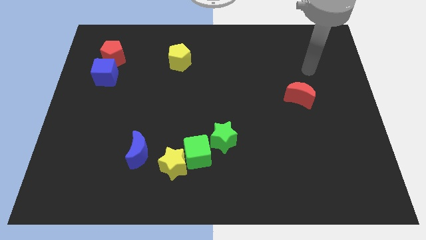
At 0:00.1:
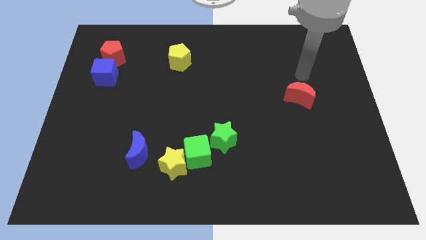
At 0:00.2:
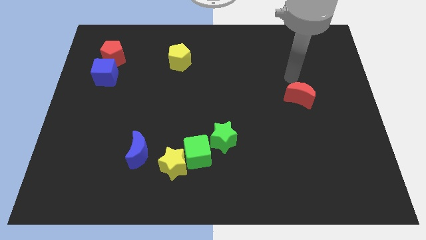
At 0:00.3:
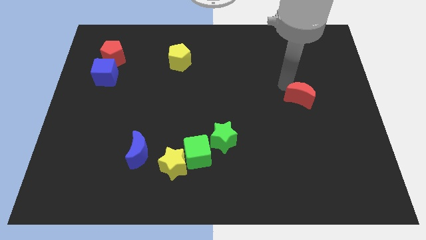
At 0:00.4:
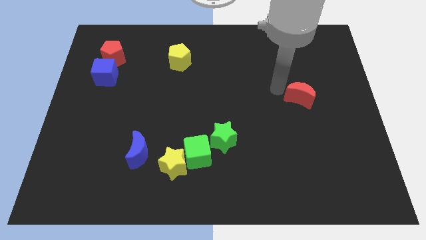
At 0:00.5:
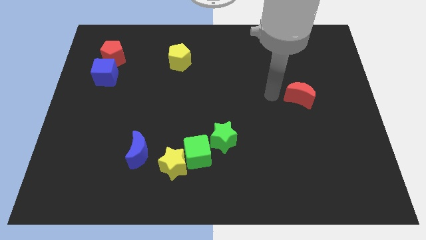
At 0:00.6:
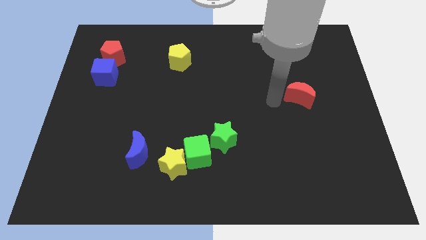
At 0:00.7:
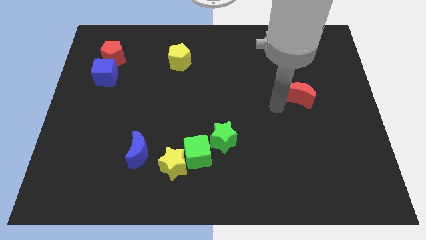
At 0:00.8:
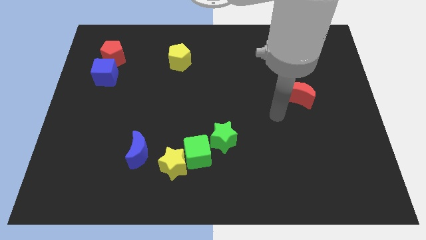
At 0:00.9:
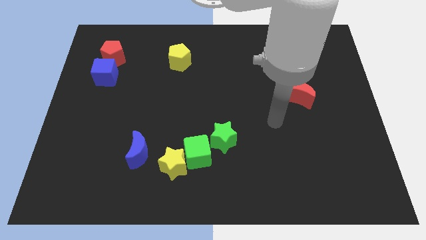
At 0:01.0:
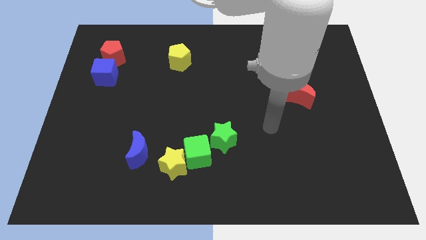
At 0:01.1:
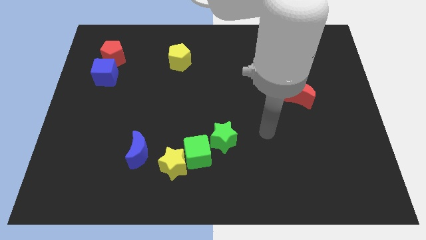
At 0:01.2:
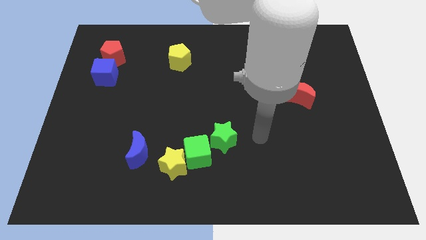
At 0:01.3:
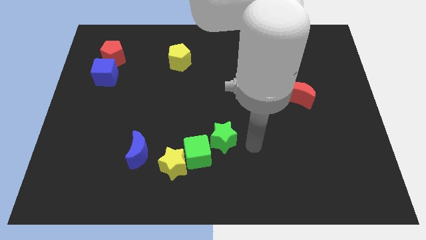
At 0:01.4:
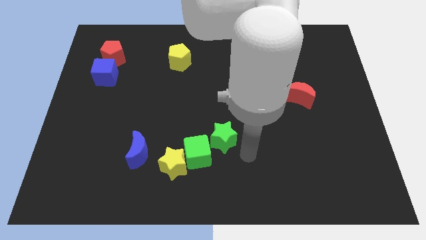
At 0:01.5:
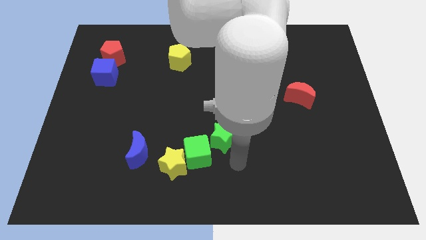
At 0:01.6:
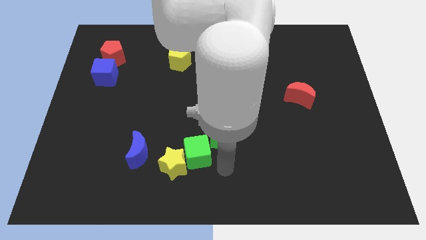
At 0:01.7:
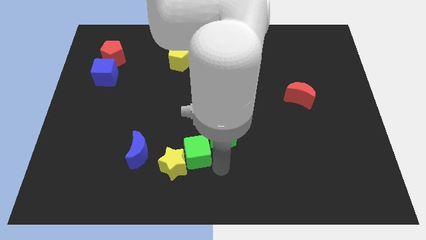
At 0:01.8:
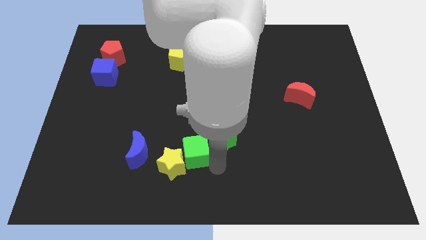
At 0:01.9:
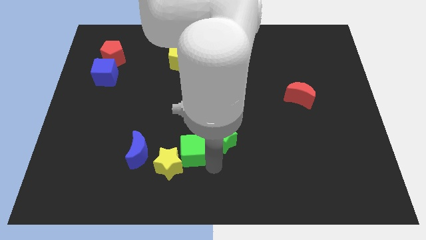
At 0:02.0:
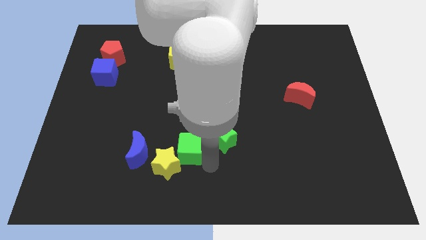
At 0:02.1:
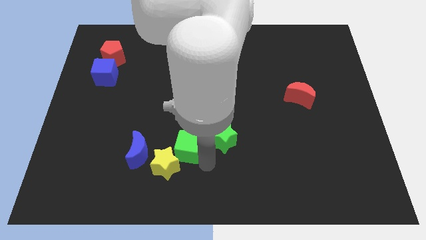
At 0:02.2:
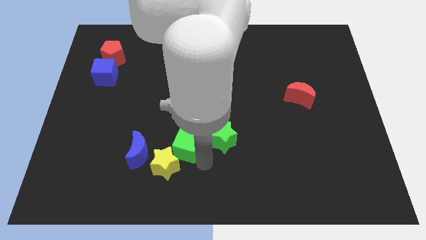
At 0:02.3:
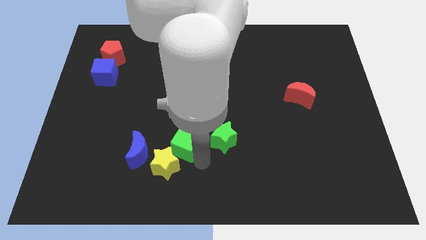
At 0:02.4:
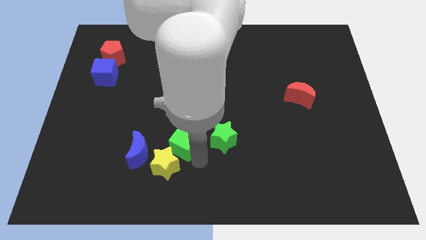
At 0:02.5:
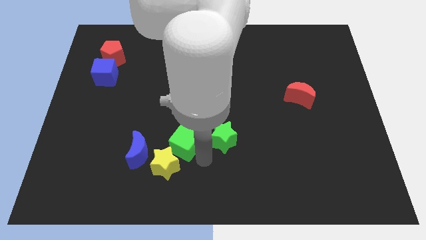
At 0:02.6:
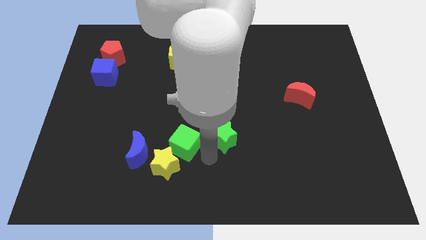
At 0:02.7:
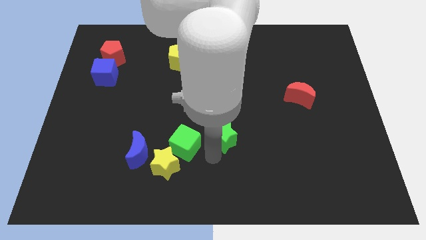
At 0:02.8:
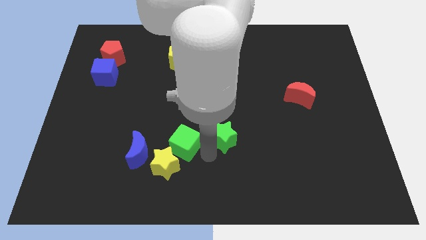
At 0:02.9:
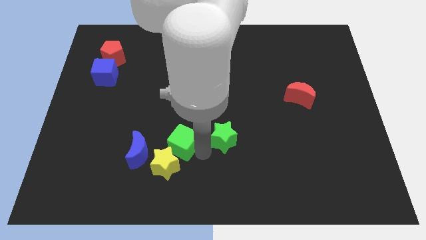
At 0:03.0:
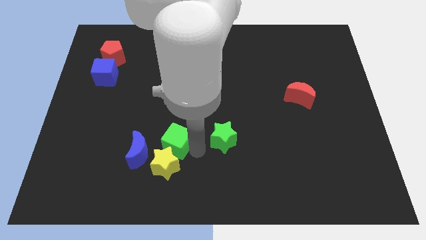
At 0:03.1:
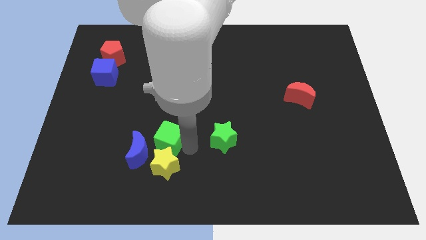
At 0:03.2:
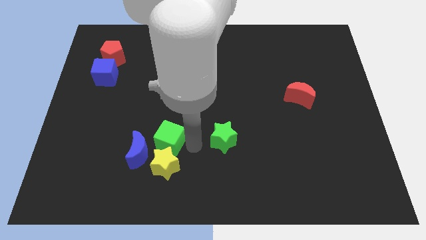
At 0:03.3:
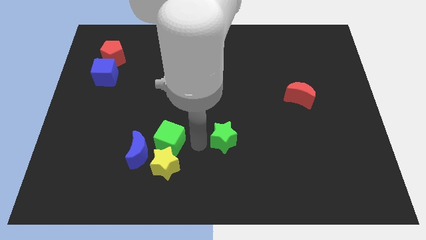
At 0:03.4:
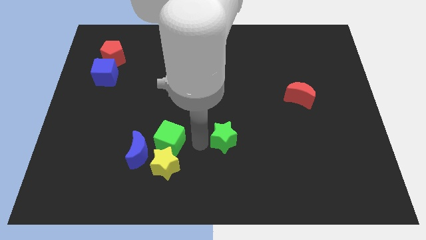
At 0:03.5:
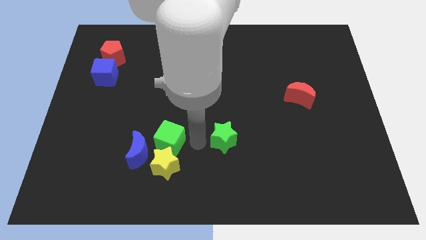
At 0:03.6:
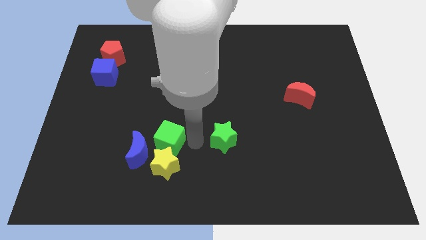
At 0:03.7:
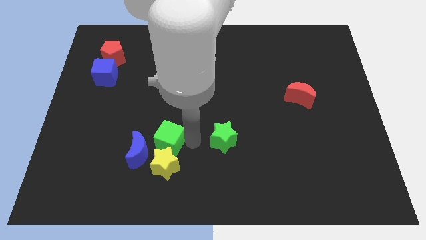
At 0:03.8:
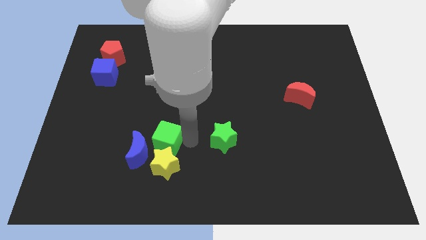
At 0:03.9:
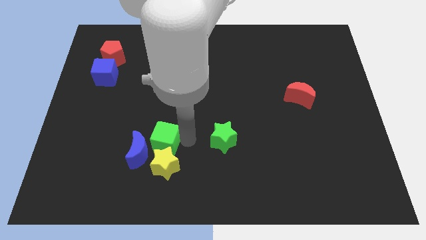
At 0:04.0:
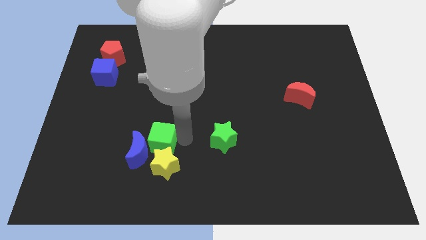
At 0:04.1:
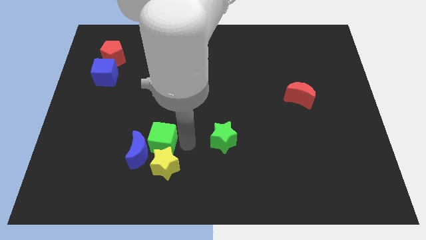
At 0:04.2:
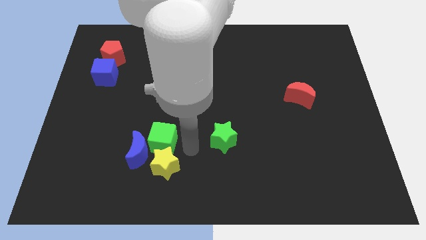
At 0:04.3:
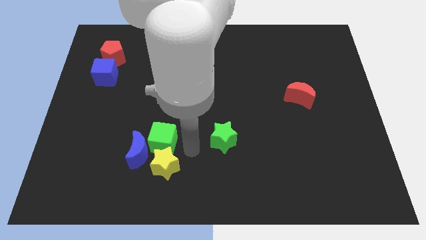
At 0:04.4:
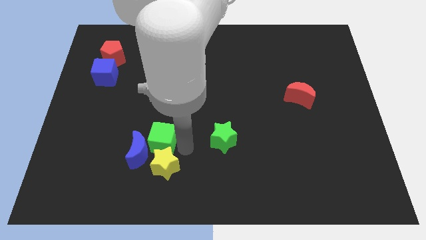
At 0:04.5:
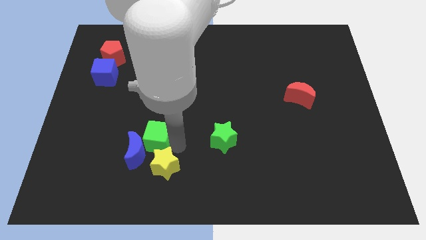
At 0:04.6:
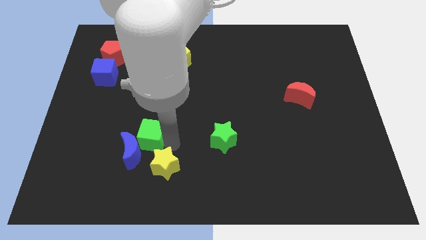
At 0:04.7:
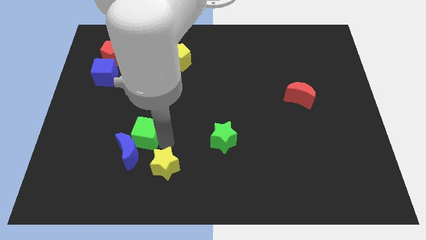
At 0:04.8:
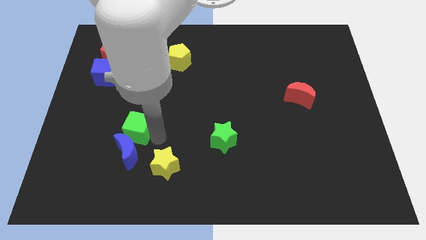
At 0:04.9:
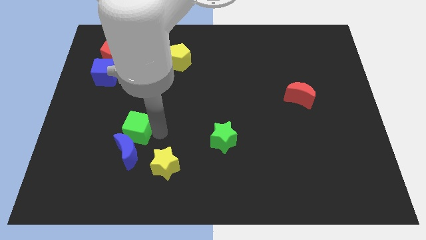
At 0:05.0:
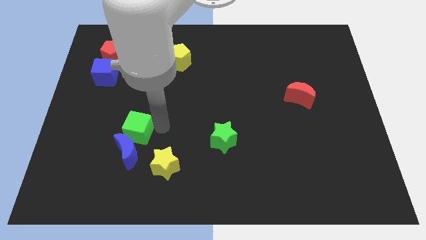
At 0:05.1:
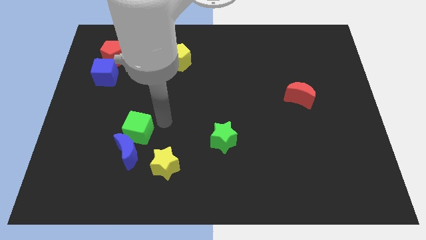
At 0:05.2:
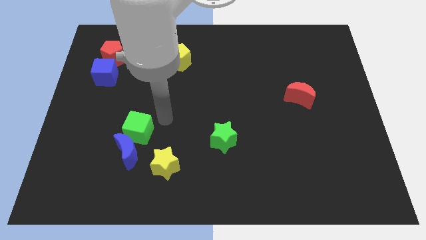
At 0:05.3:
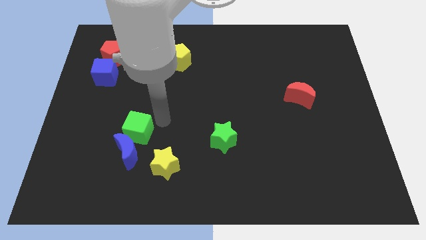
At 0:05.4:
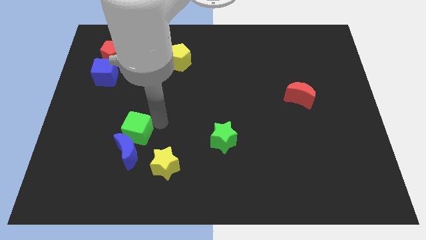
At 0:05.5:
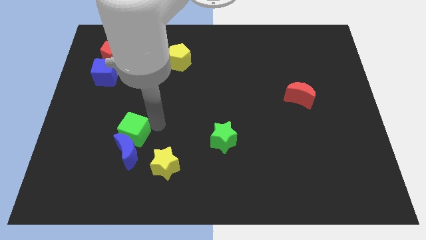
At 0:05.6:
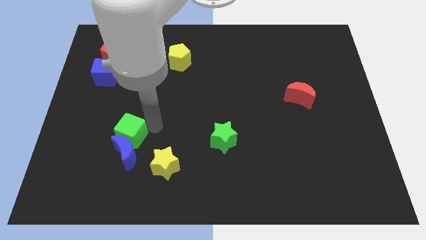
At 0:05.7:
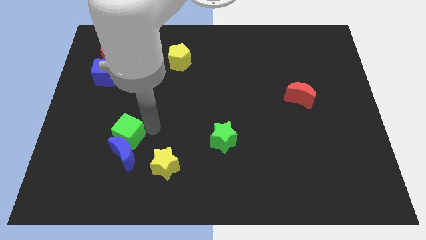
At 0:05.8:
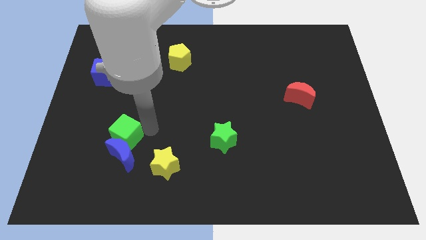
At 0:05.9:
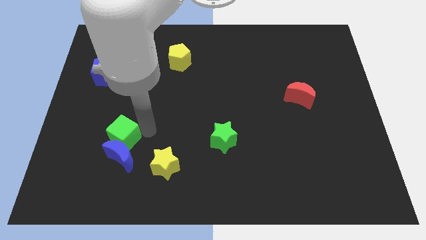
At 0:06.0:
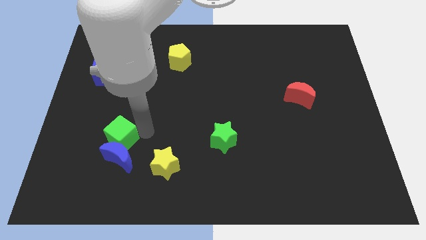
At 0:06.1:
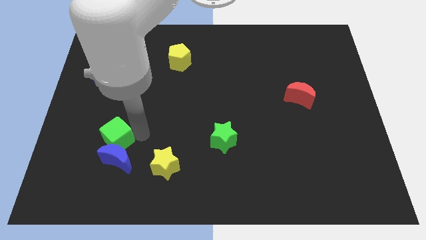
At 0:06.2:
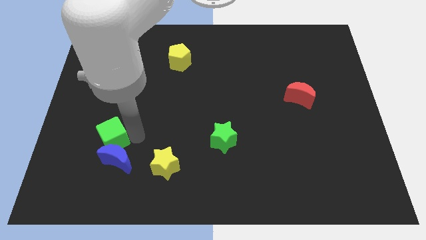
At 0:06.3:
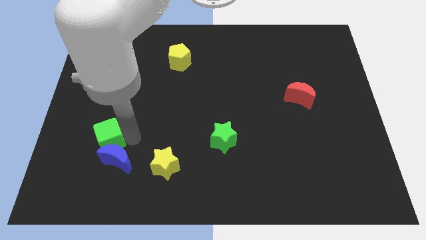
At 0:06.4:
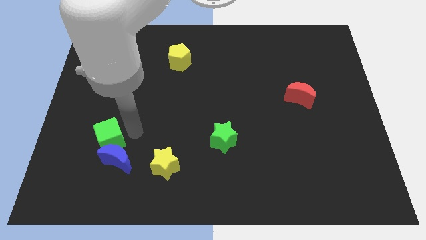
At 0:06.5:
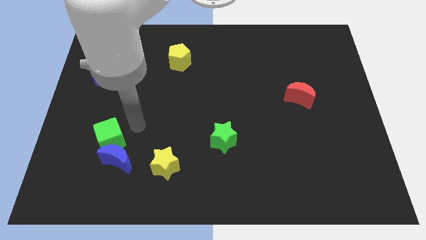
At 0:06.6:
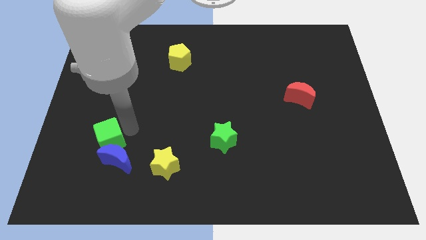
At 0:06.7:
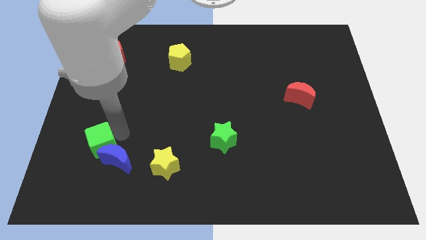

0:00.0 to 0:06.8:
move the green cube to the left side of the blue moon

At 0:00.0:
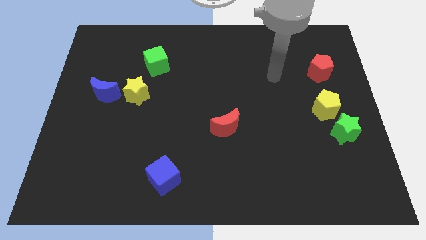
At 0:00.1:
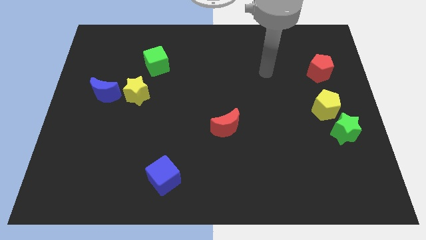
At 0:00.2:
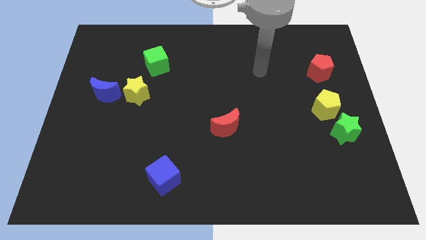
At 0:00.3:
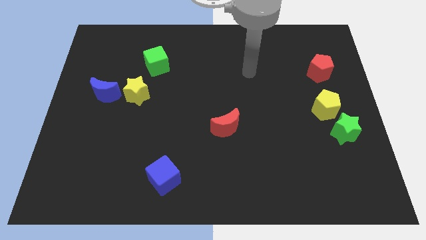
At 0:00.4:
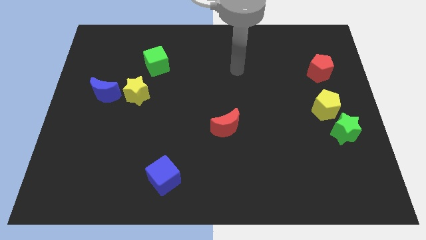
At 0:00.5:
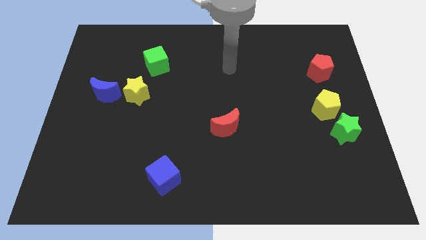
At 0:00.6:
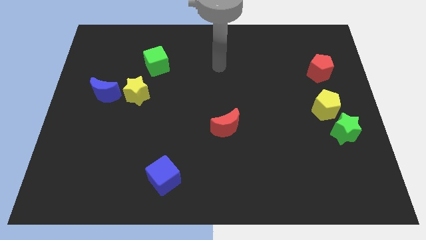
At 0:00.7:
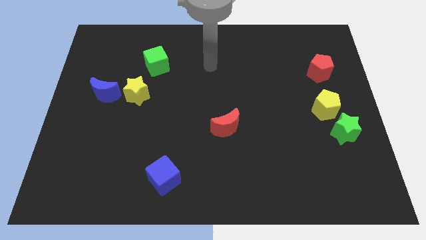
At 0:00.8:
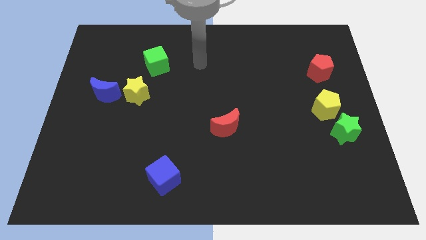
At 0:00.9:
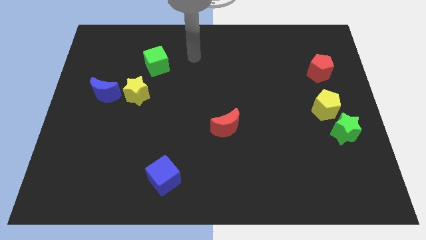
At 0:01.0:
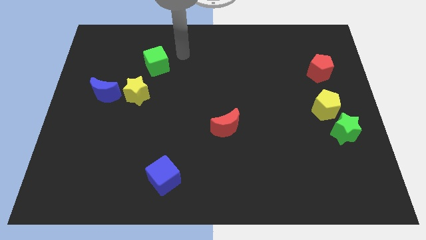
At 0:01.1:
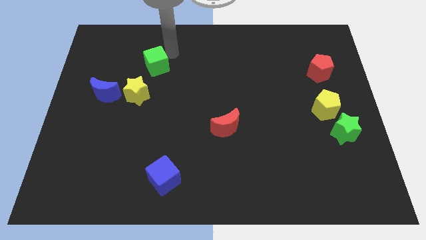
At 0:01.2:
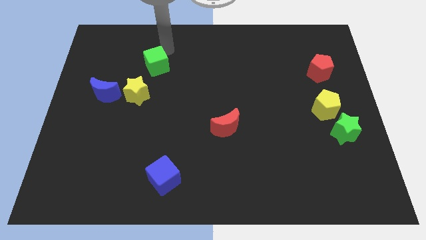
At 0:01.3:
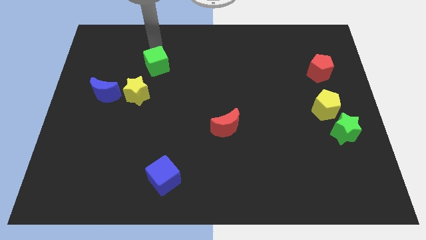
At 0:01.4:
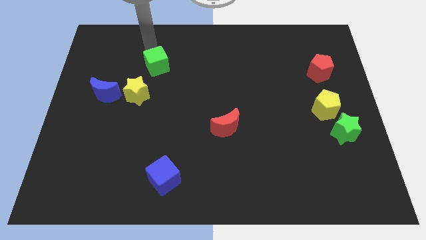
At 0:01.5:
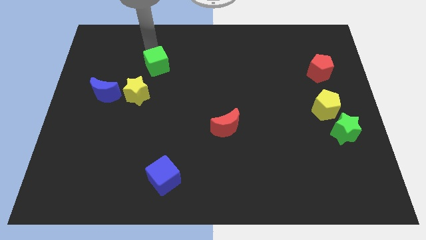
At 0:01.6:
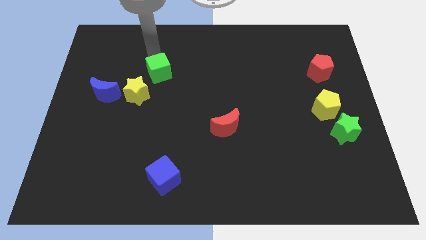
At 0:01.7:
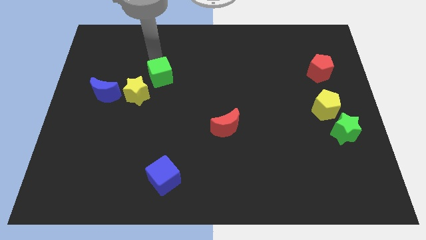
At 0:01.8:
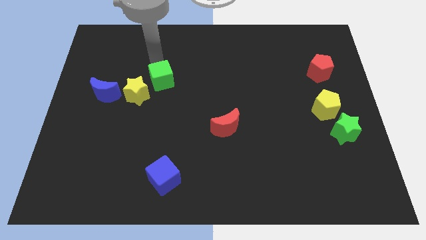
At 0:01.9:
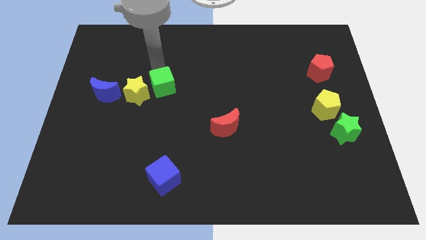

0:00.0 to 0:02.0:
push the green cube to the right of the blue moon
